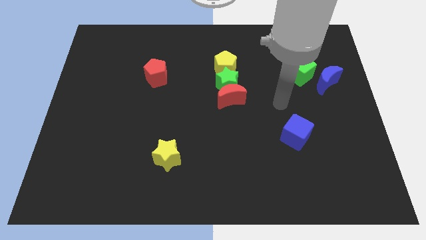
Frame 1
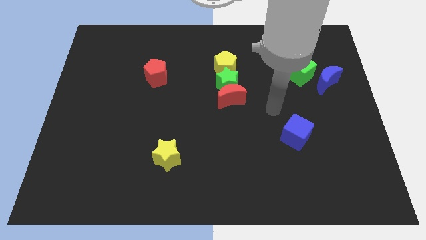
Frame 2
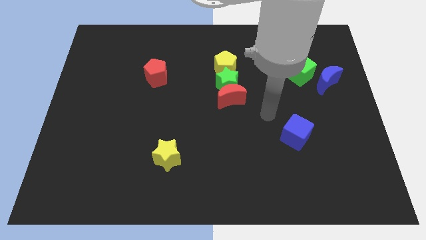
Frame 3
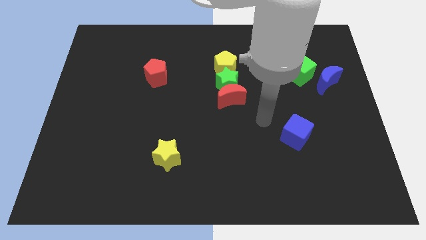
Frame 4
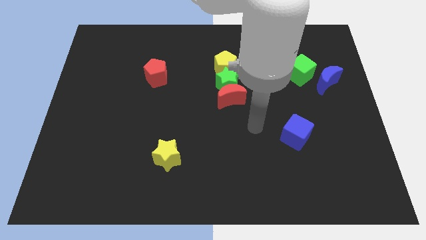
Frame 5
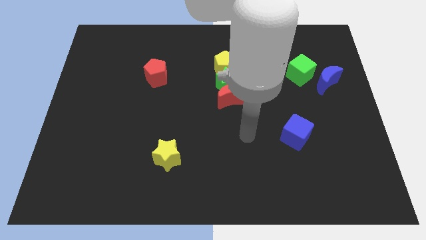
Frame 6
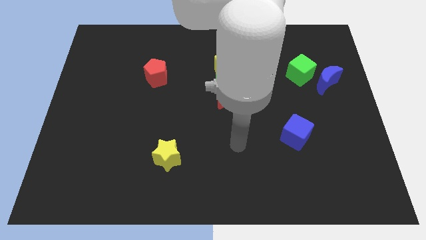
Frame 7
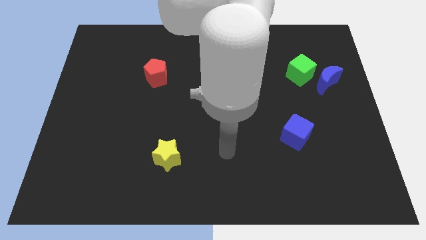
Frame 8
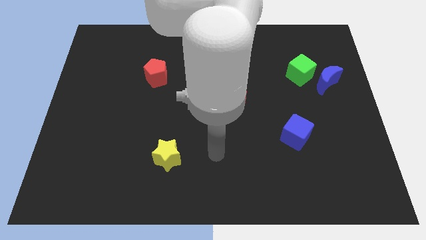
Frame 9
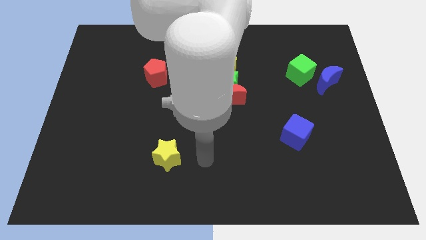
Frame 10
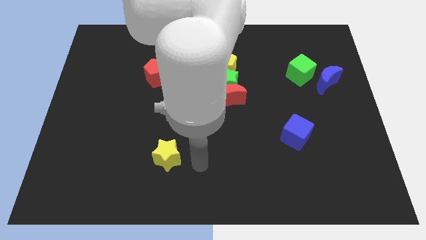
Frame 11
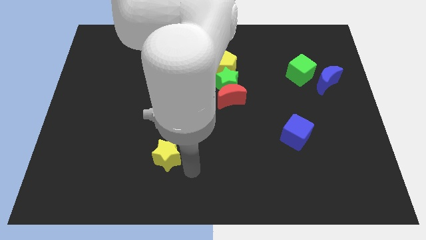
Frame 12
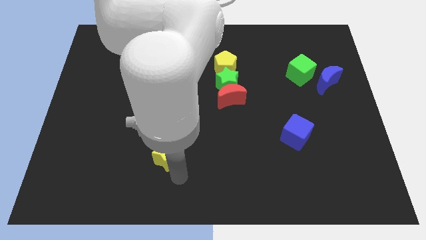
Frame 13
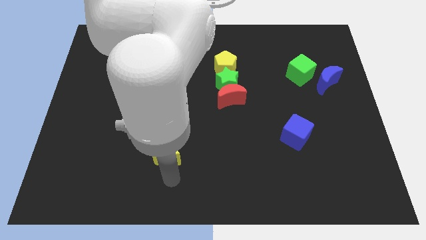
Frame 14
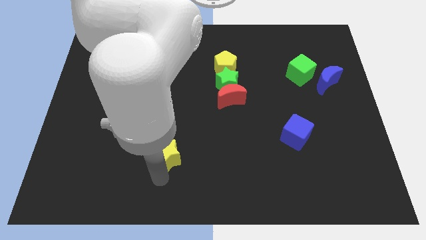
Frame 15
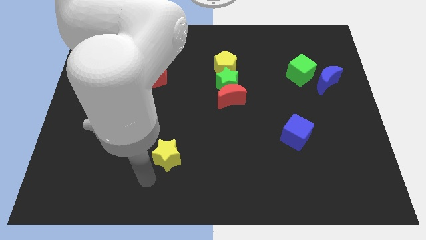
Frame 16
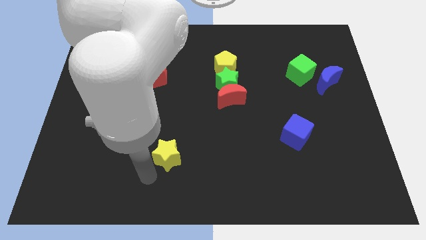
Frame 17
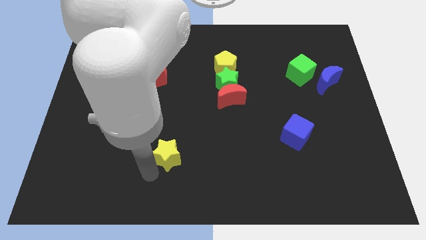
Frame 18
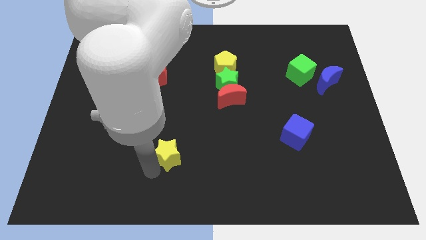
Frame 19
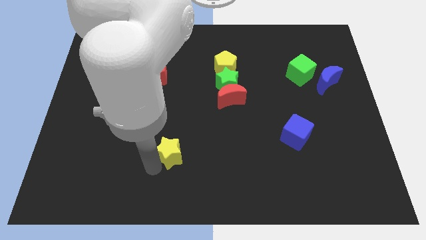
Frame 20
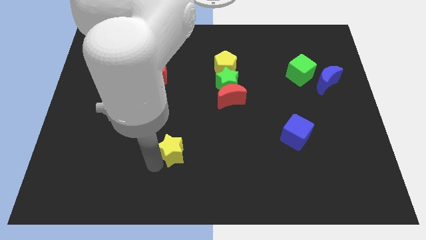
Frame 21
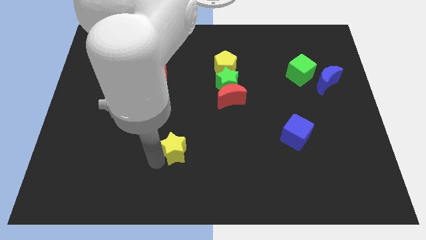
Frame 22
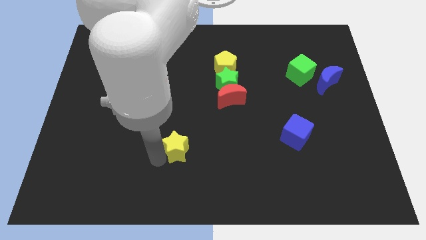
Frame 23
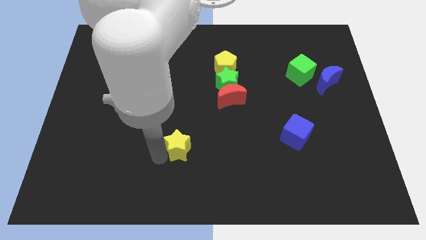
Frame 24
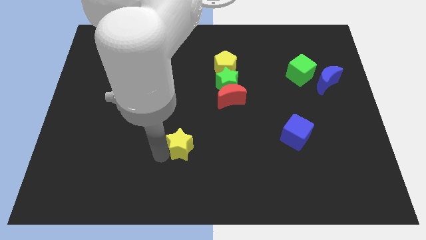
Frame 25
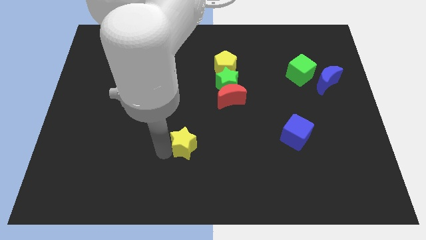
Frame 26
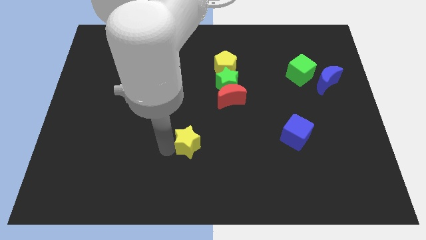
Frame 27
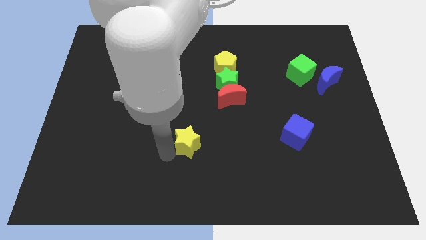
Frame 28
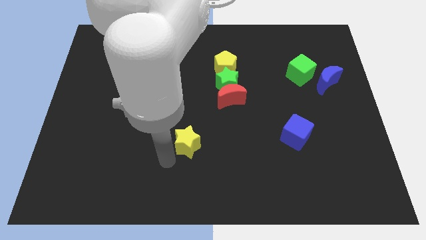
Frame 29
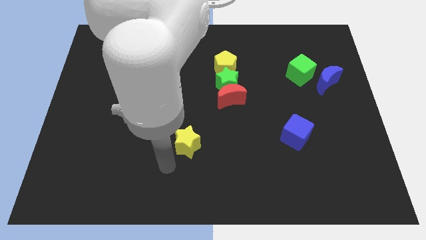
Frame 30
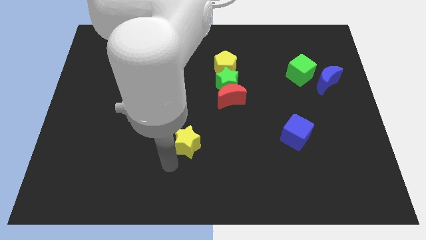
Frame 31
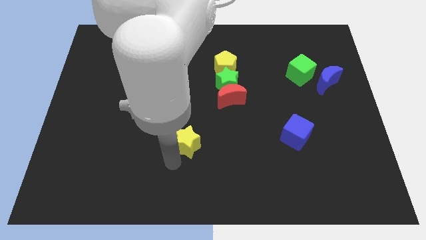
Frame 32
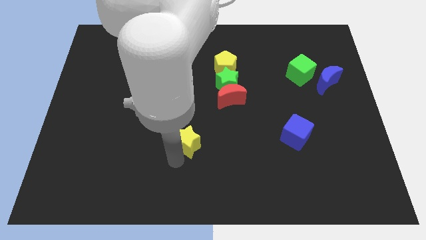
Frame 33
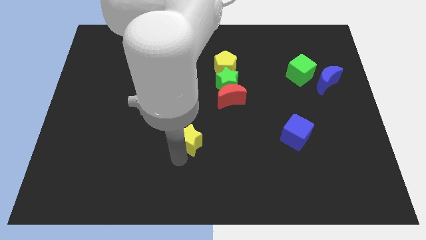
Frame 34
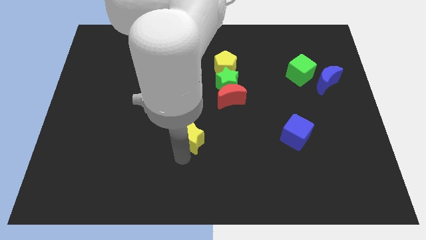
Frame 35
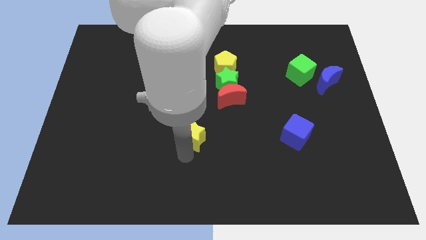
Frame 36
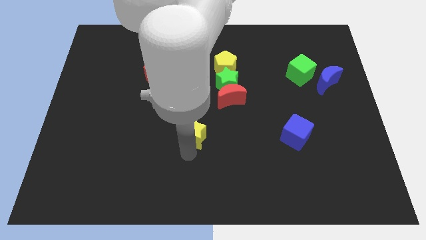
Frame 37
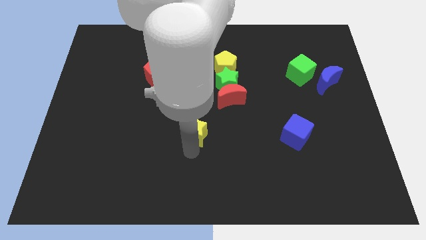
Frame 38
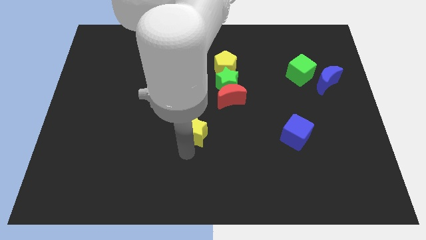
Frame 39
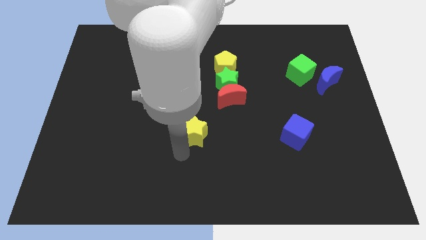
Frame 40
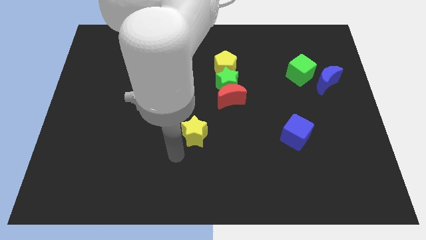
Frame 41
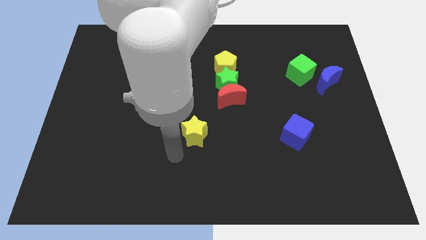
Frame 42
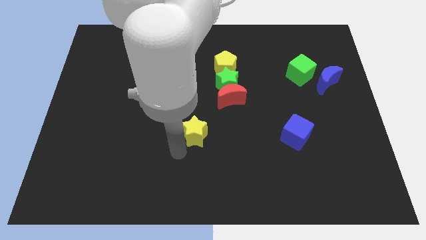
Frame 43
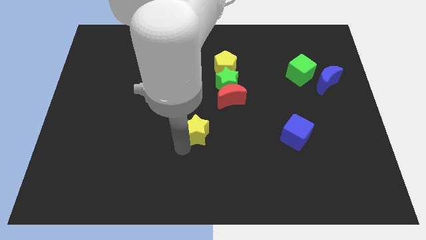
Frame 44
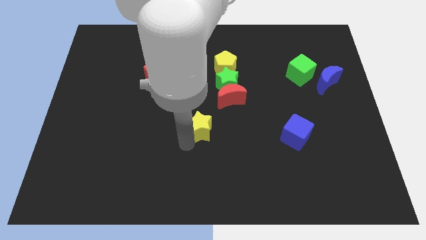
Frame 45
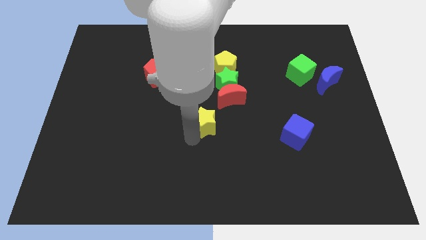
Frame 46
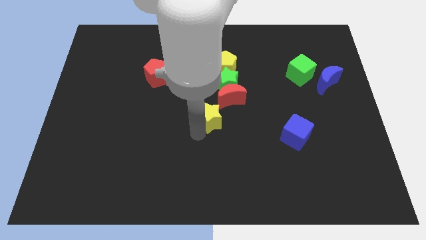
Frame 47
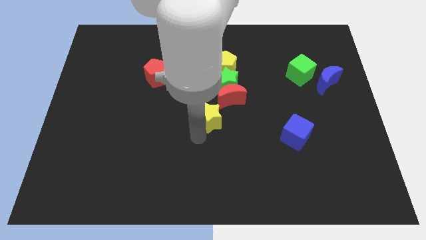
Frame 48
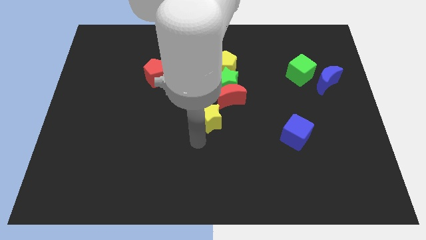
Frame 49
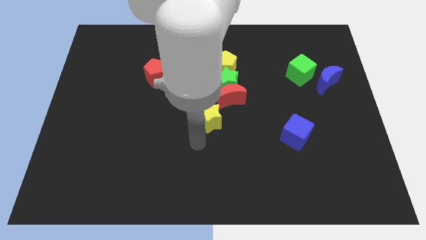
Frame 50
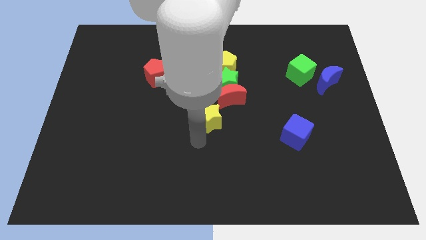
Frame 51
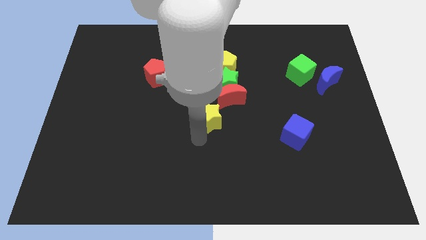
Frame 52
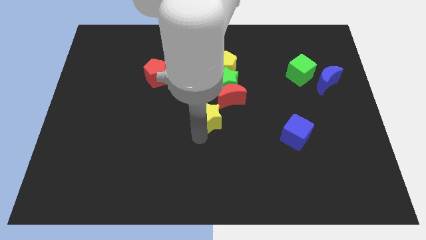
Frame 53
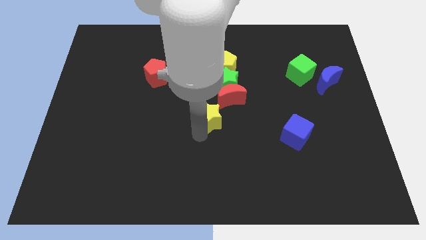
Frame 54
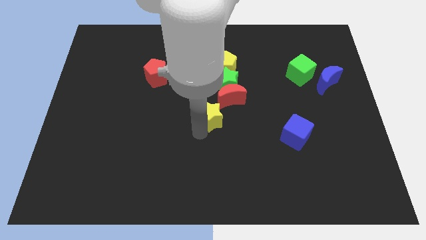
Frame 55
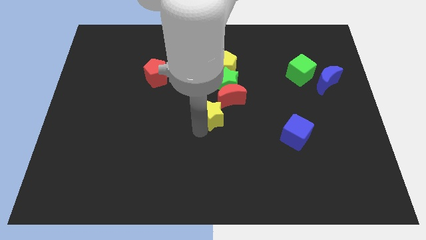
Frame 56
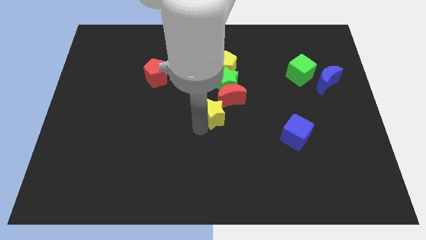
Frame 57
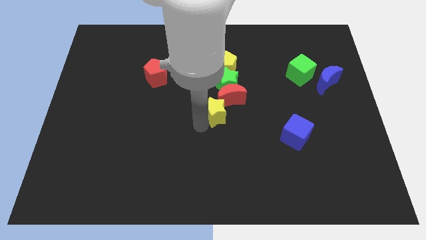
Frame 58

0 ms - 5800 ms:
put the yellow star to the red moon

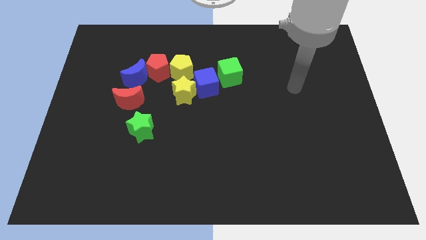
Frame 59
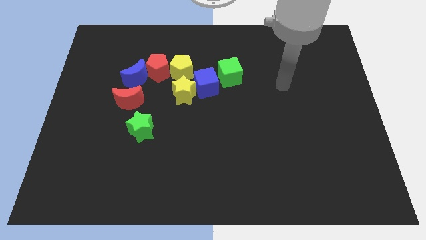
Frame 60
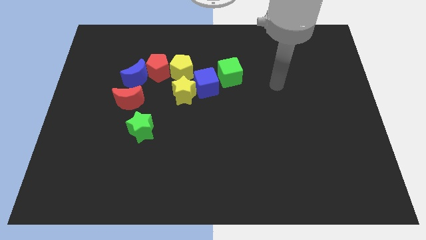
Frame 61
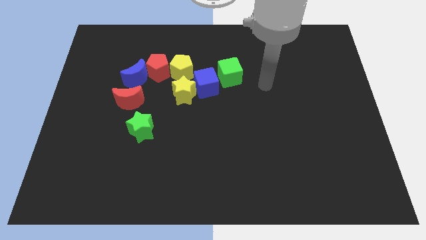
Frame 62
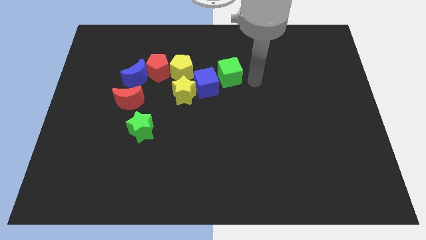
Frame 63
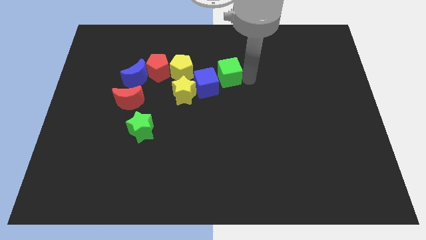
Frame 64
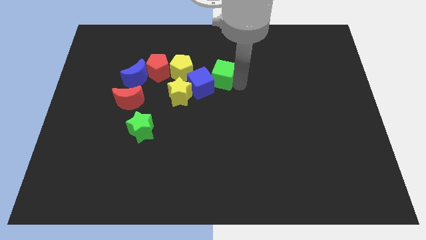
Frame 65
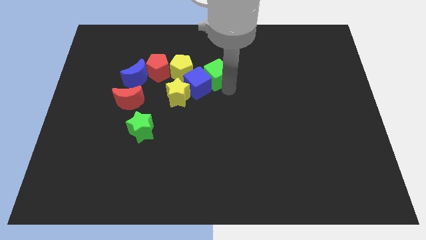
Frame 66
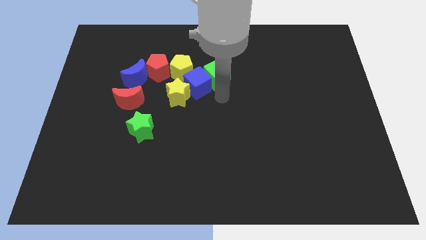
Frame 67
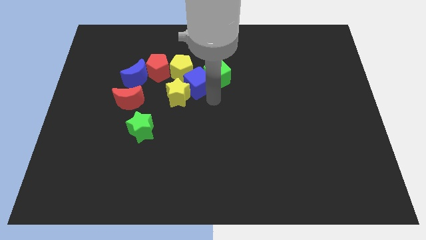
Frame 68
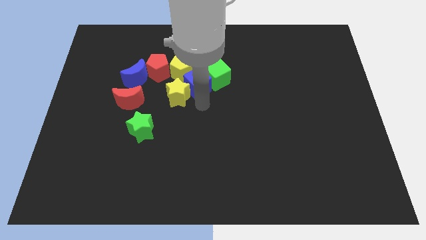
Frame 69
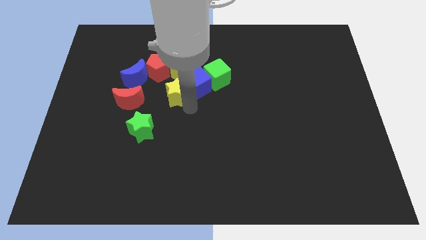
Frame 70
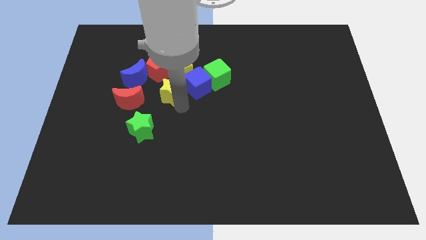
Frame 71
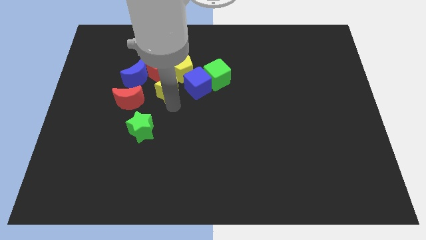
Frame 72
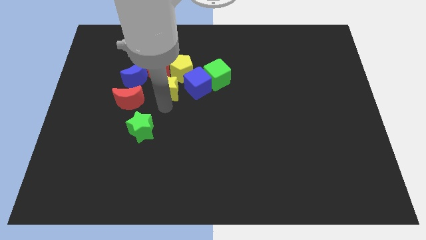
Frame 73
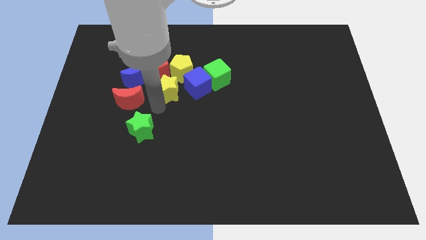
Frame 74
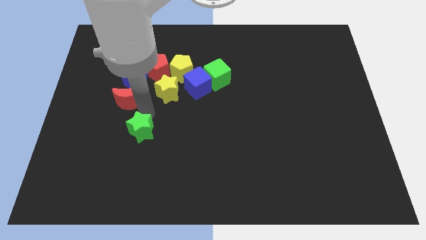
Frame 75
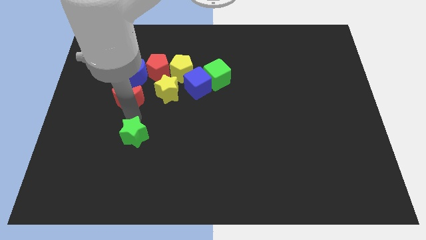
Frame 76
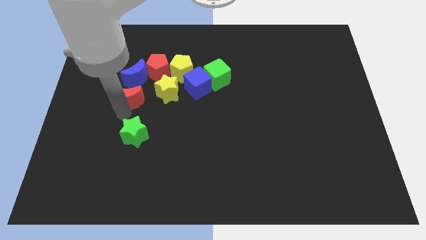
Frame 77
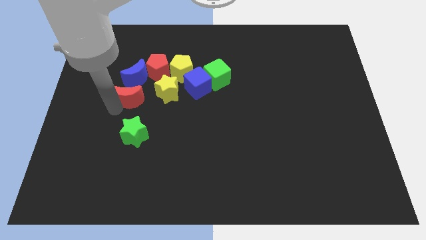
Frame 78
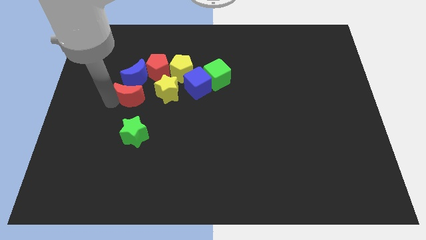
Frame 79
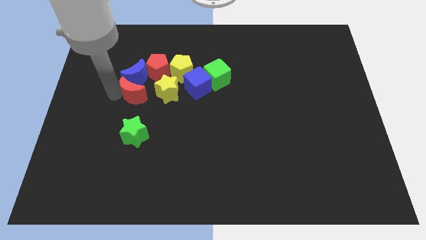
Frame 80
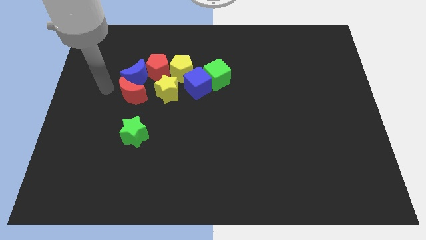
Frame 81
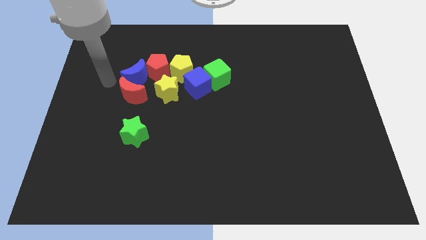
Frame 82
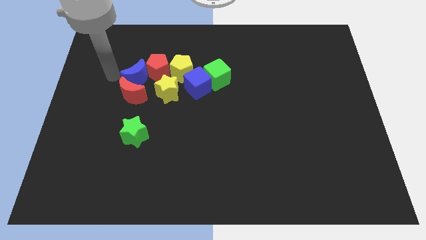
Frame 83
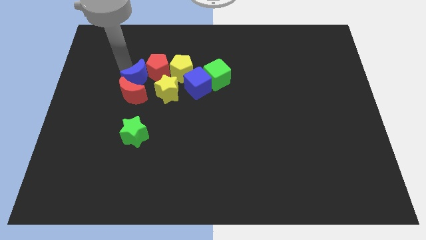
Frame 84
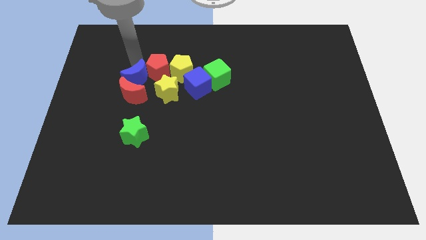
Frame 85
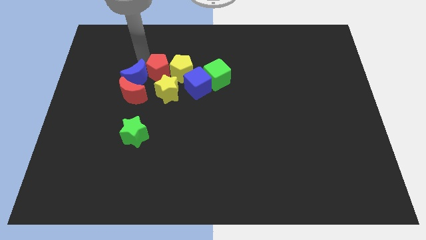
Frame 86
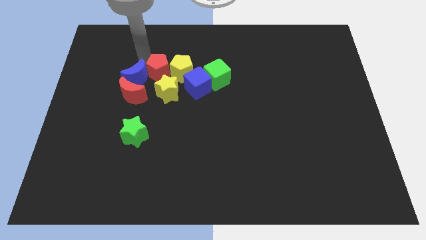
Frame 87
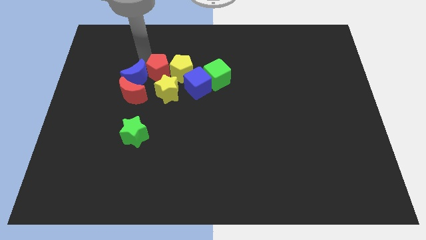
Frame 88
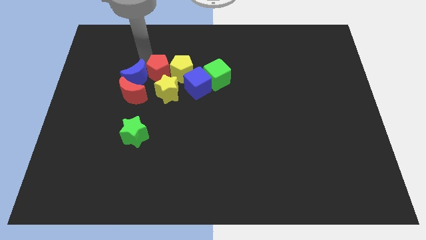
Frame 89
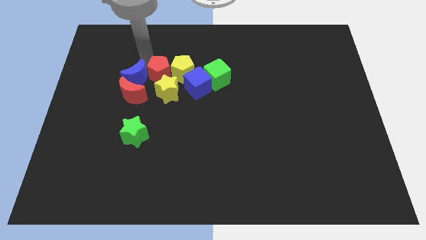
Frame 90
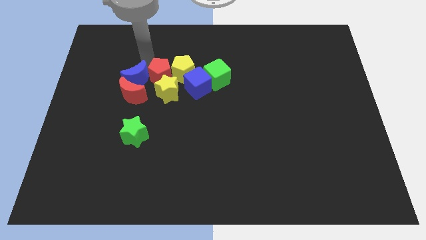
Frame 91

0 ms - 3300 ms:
move the red pentagon to the yellow star
